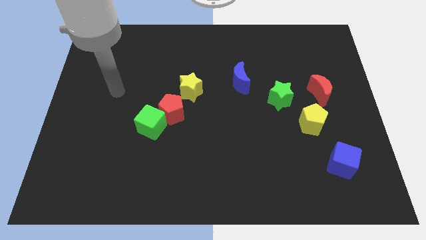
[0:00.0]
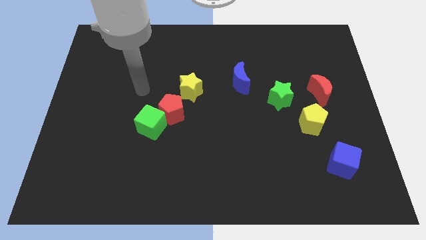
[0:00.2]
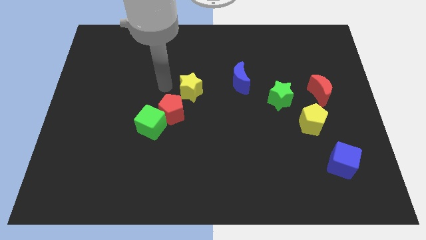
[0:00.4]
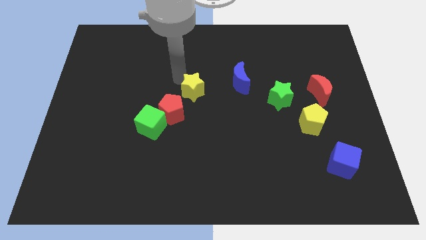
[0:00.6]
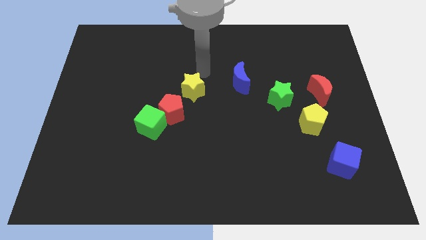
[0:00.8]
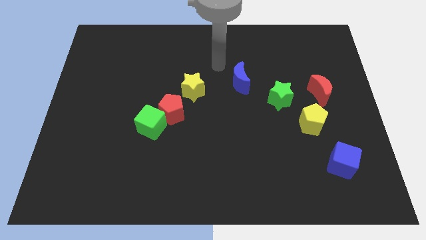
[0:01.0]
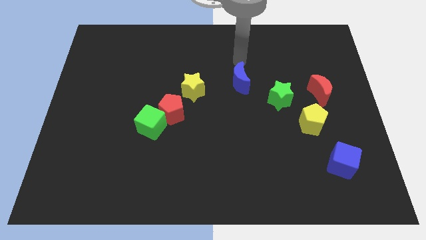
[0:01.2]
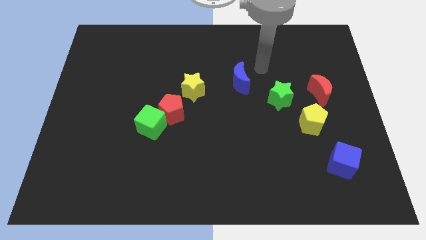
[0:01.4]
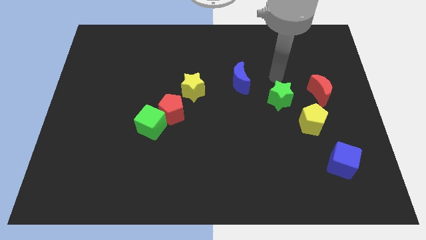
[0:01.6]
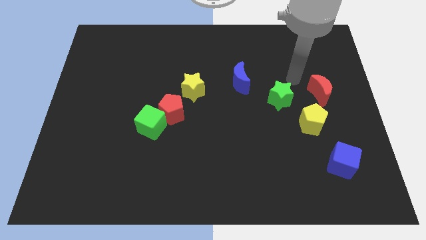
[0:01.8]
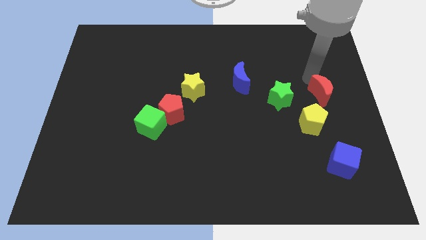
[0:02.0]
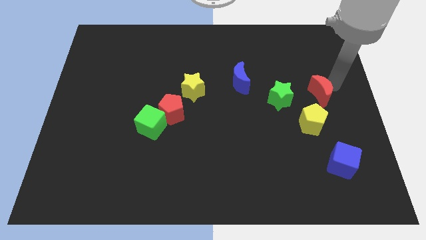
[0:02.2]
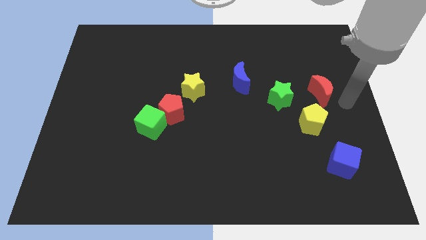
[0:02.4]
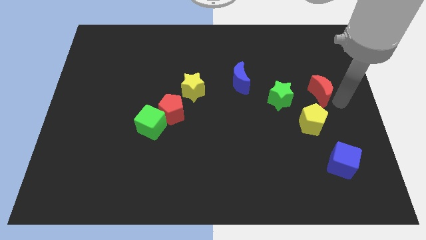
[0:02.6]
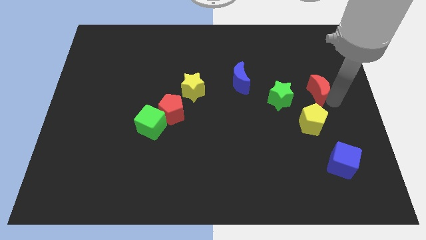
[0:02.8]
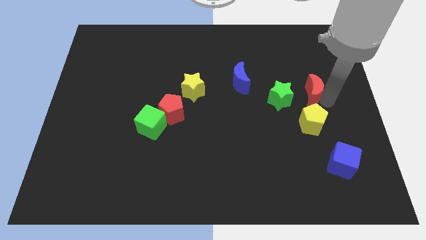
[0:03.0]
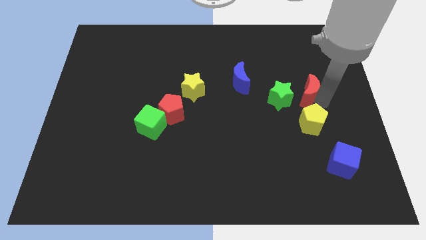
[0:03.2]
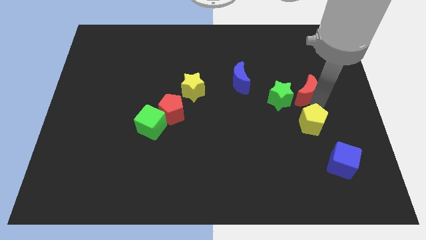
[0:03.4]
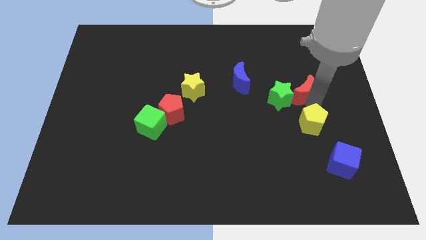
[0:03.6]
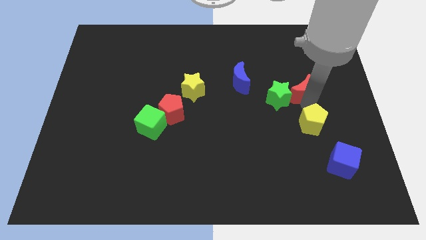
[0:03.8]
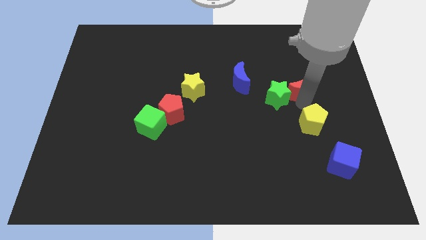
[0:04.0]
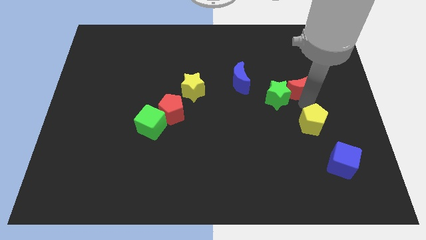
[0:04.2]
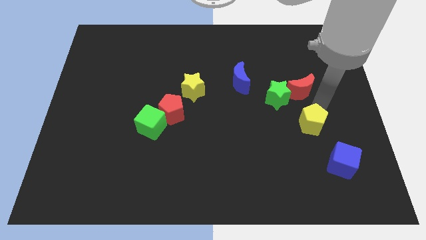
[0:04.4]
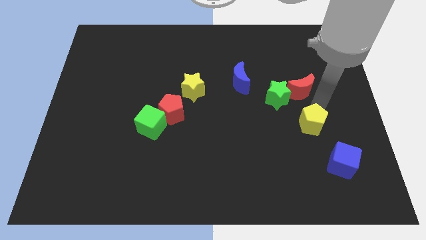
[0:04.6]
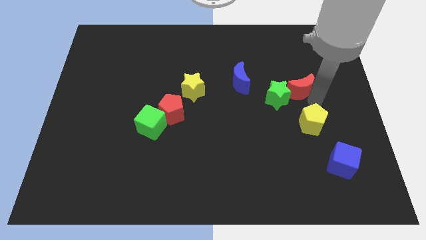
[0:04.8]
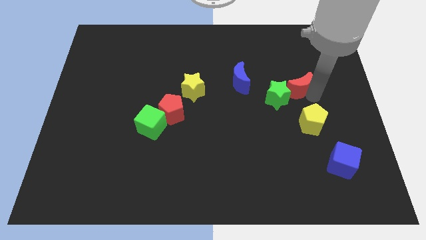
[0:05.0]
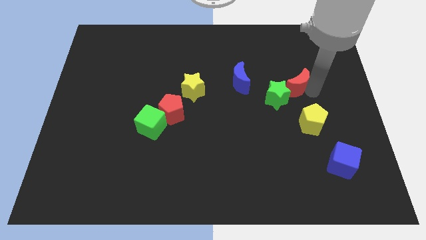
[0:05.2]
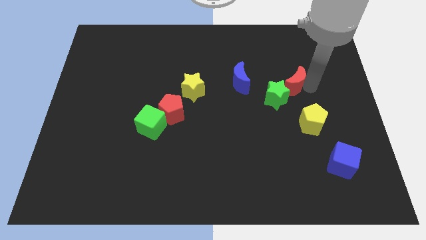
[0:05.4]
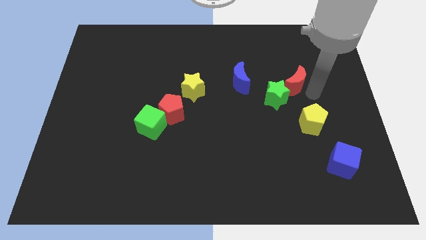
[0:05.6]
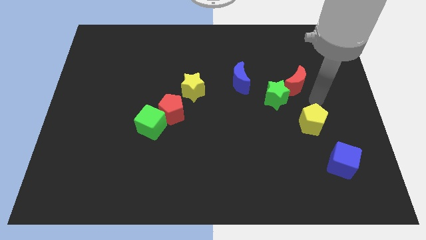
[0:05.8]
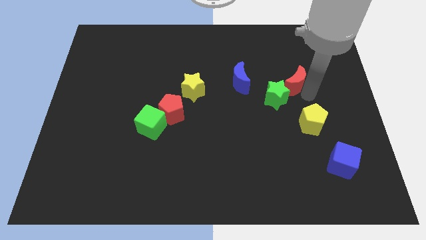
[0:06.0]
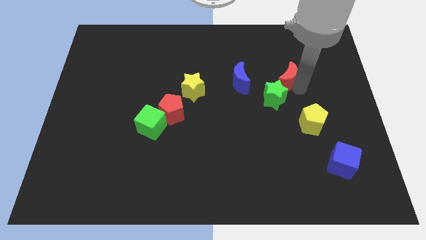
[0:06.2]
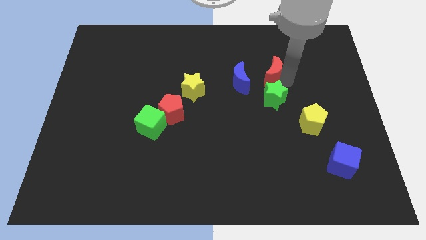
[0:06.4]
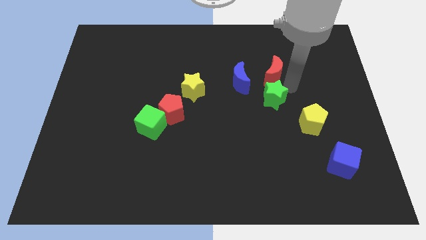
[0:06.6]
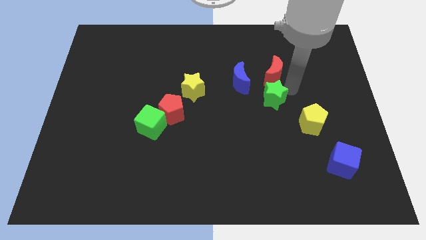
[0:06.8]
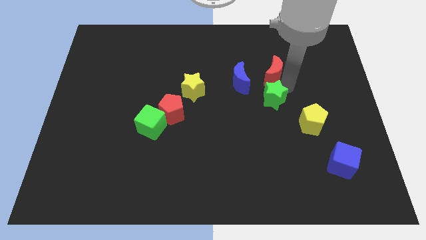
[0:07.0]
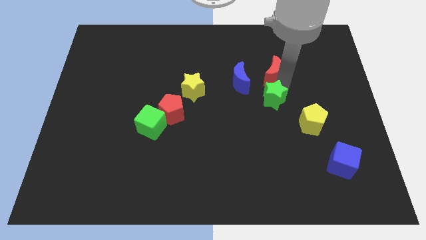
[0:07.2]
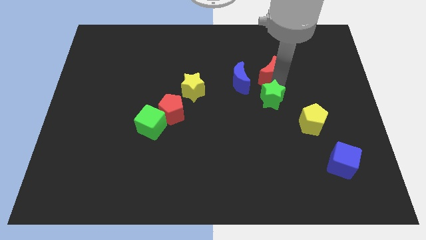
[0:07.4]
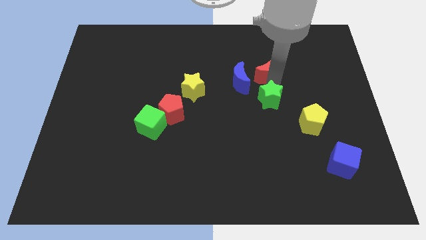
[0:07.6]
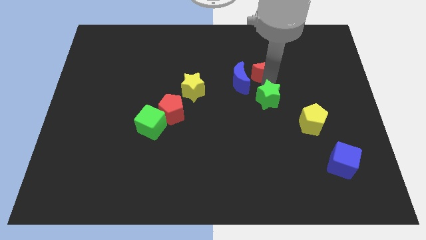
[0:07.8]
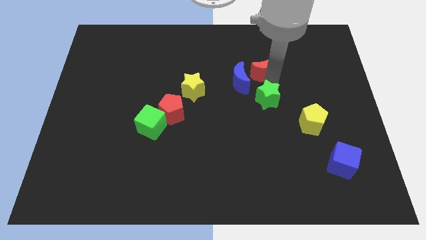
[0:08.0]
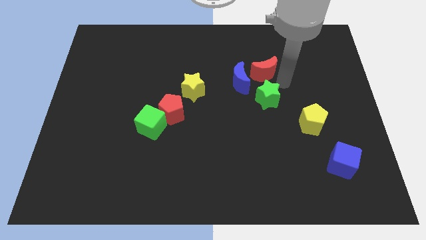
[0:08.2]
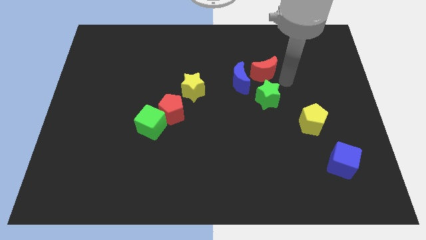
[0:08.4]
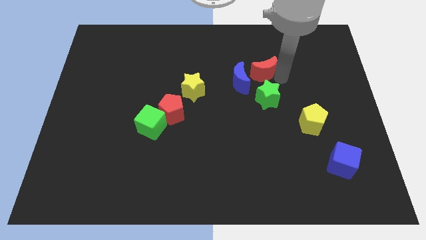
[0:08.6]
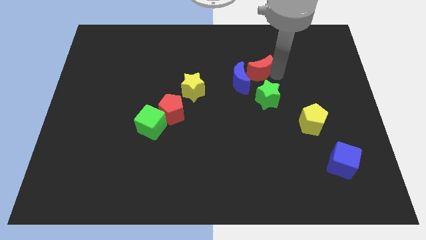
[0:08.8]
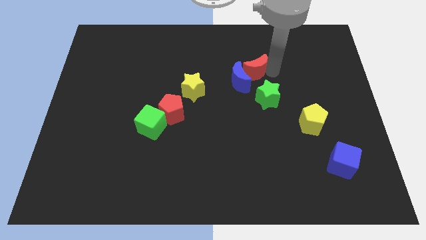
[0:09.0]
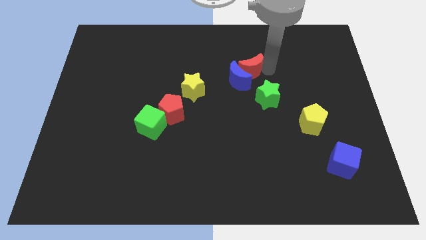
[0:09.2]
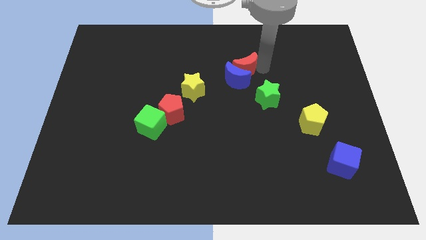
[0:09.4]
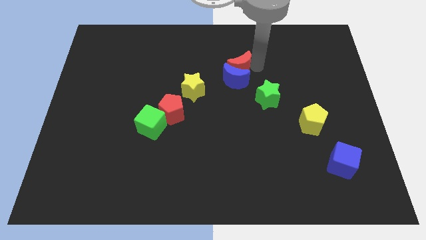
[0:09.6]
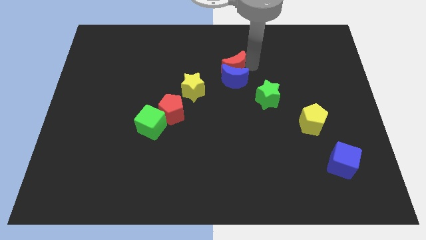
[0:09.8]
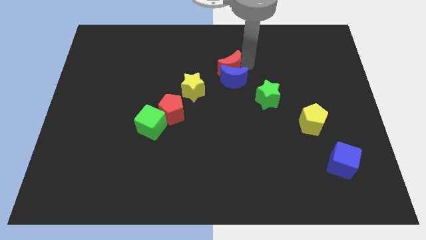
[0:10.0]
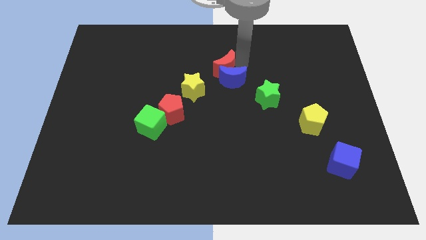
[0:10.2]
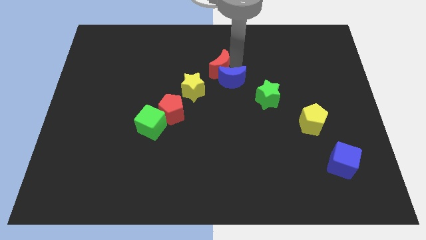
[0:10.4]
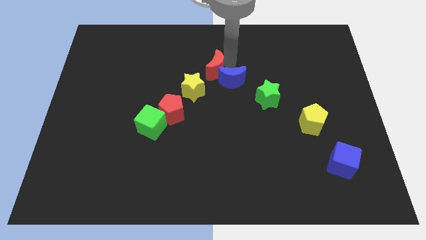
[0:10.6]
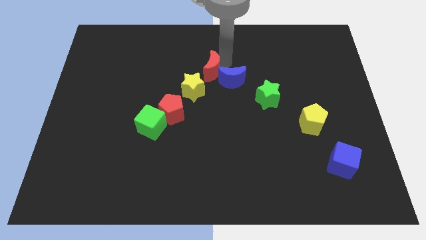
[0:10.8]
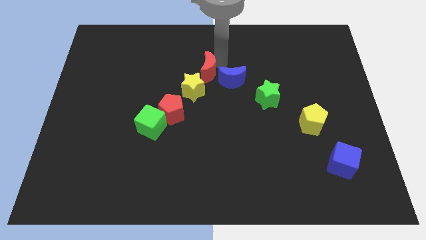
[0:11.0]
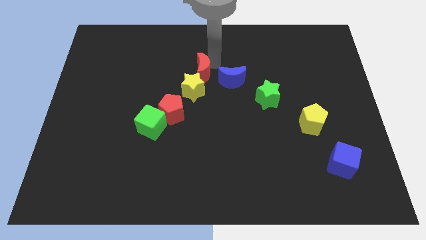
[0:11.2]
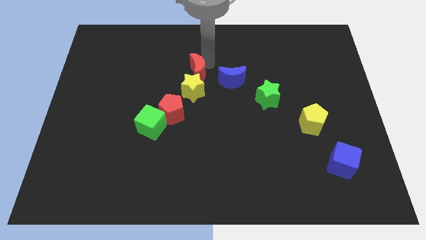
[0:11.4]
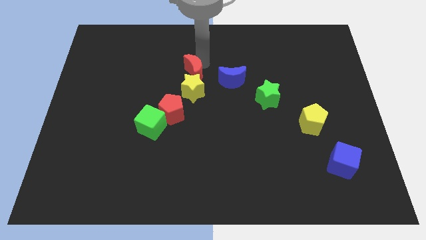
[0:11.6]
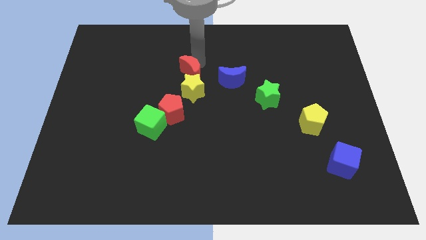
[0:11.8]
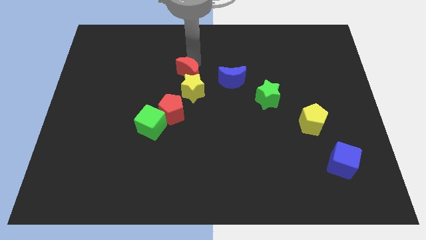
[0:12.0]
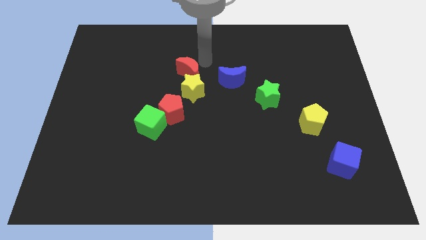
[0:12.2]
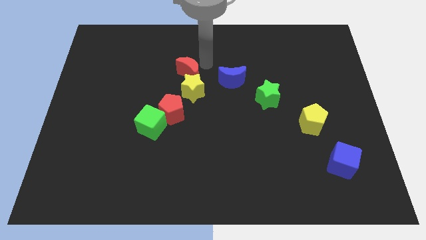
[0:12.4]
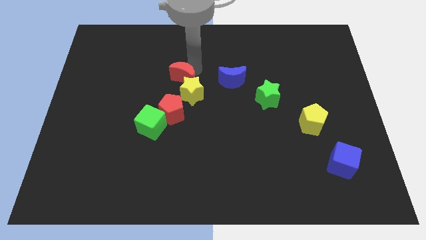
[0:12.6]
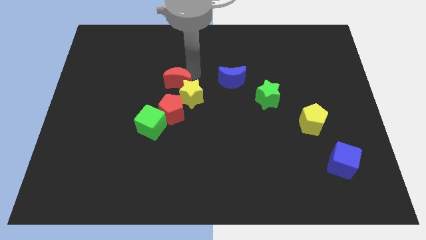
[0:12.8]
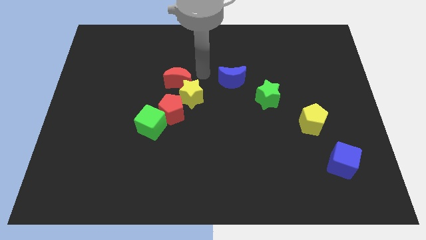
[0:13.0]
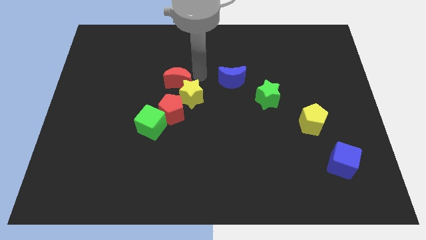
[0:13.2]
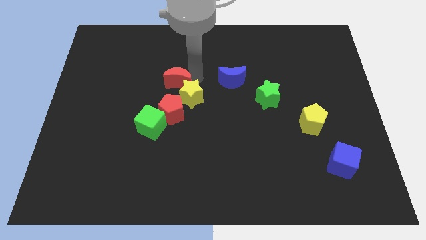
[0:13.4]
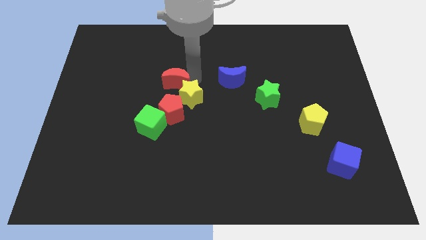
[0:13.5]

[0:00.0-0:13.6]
push the red moon to the left of the yellow star

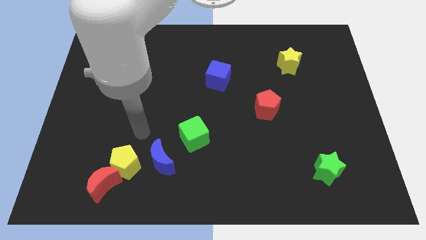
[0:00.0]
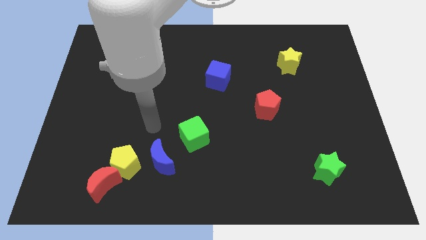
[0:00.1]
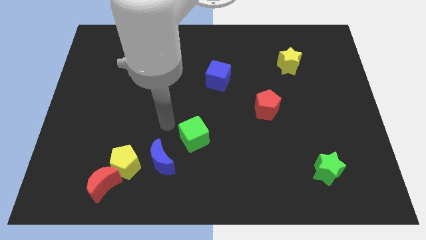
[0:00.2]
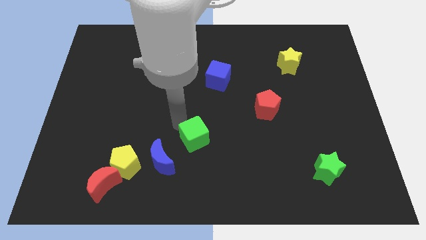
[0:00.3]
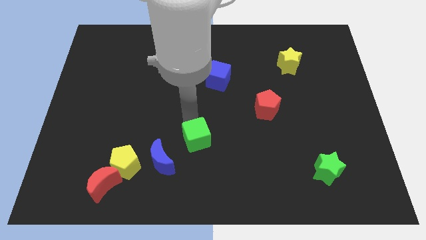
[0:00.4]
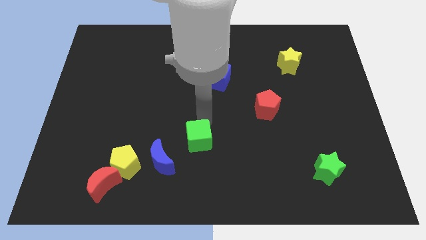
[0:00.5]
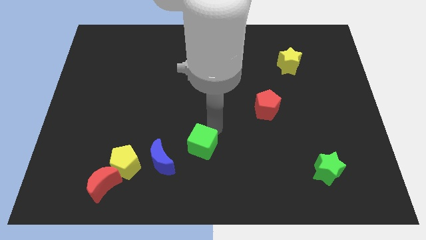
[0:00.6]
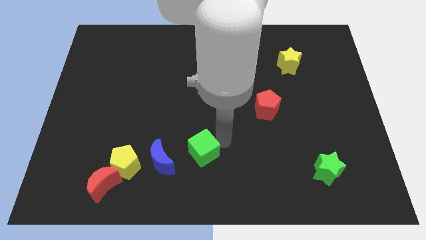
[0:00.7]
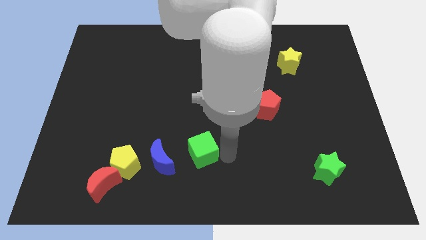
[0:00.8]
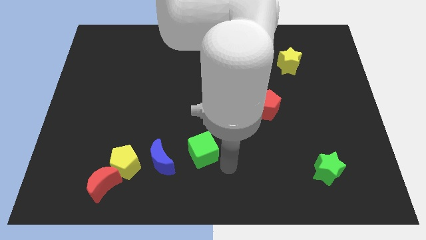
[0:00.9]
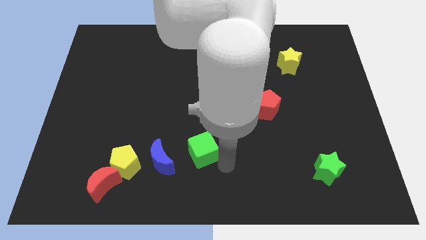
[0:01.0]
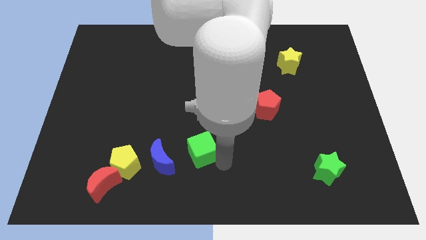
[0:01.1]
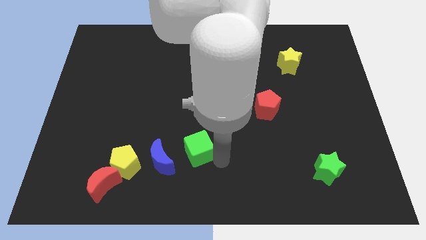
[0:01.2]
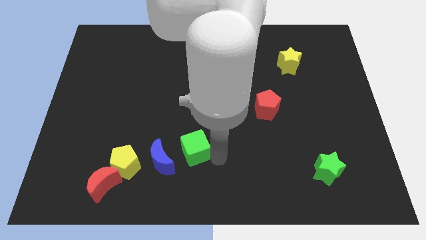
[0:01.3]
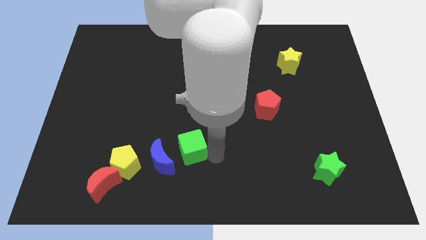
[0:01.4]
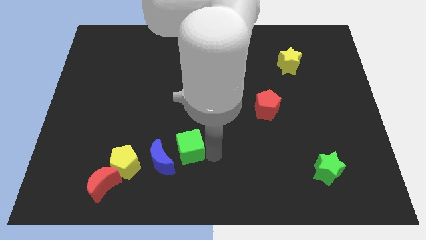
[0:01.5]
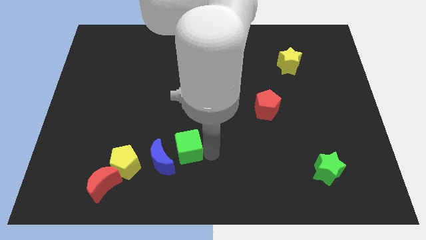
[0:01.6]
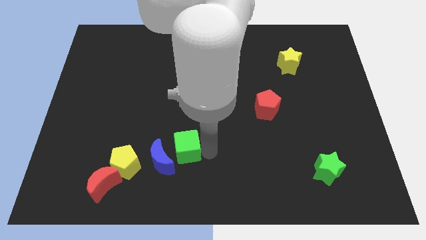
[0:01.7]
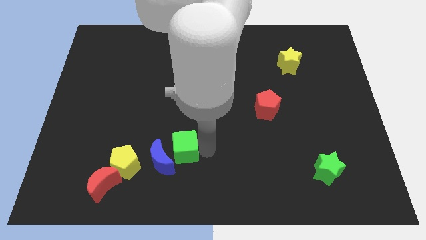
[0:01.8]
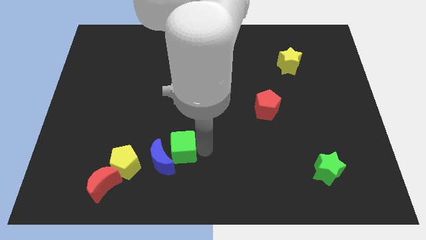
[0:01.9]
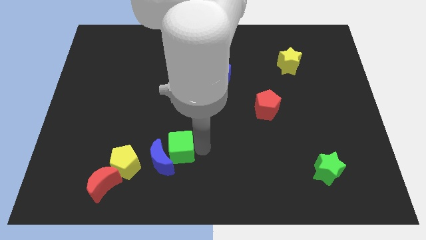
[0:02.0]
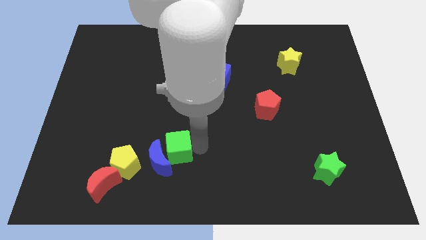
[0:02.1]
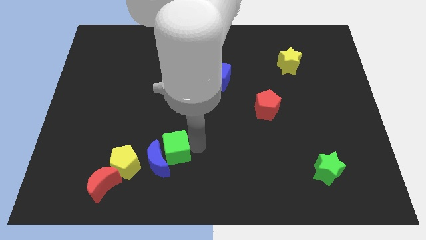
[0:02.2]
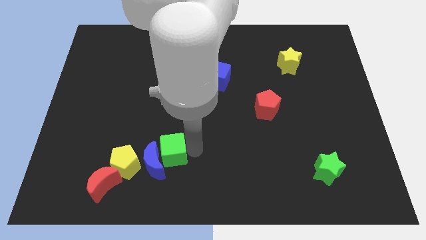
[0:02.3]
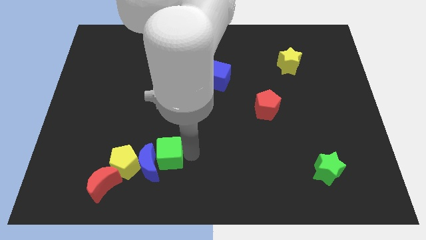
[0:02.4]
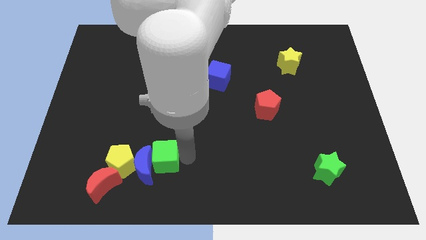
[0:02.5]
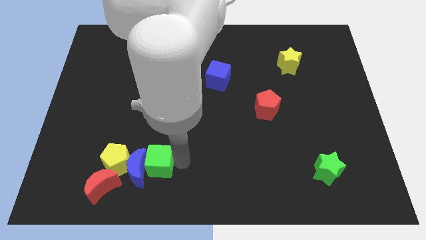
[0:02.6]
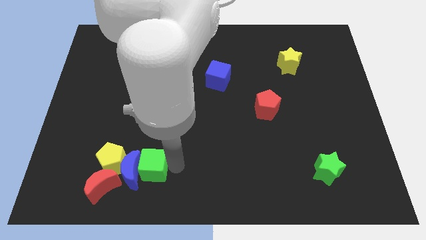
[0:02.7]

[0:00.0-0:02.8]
put the green cube to the top right of the red moon
